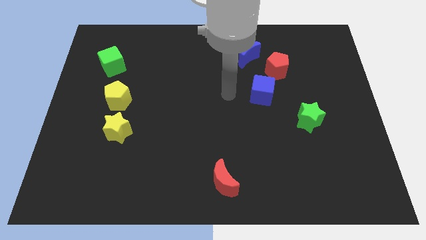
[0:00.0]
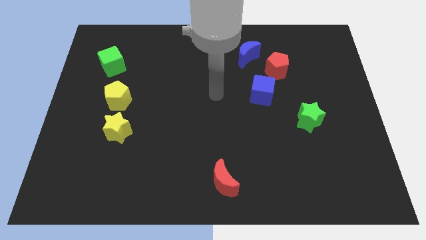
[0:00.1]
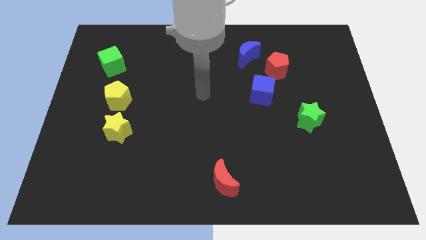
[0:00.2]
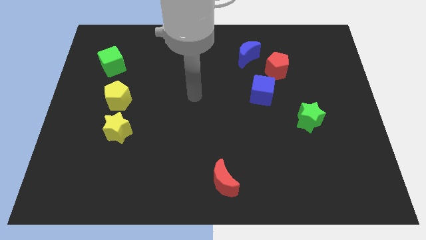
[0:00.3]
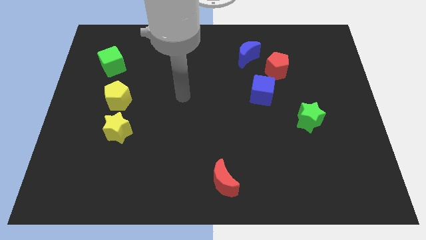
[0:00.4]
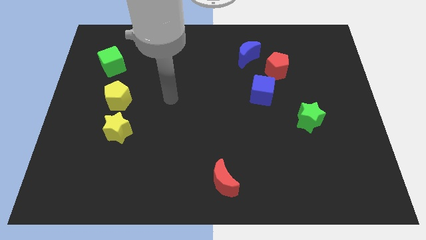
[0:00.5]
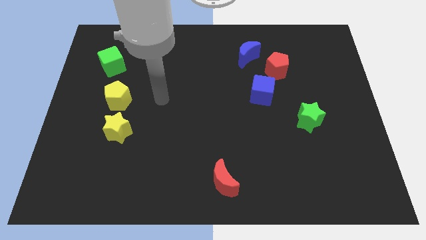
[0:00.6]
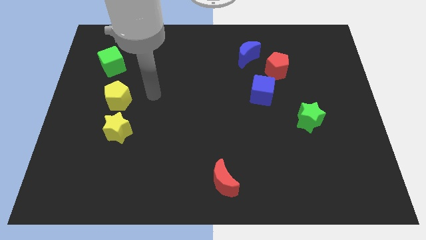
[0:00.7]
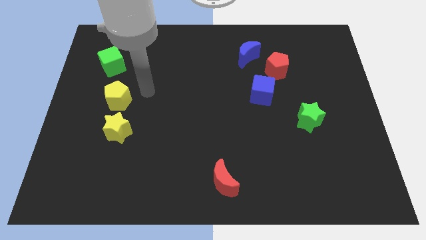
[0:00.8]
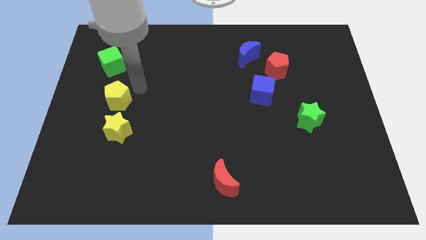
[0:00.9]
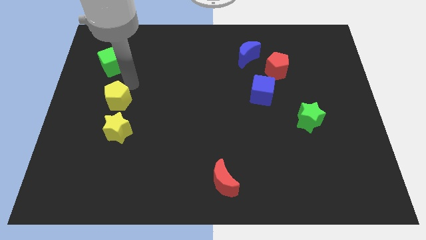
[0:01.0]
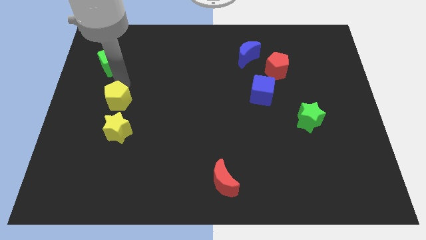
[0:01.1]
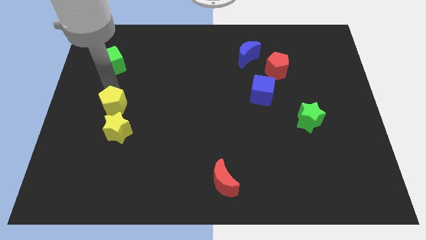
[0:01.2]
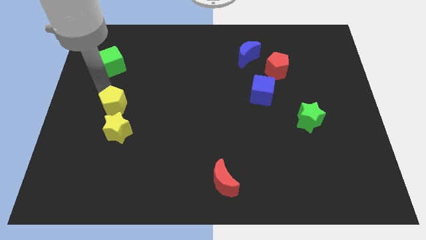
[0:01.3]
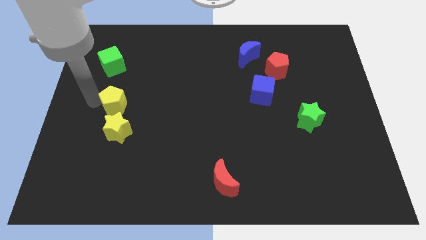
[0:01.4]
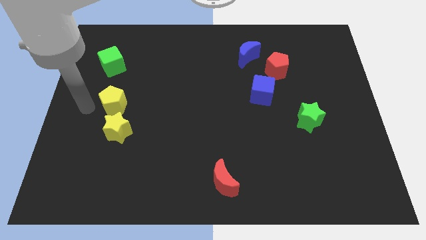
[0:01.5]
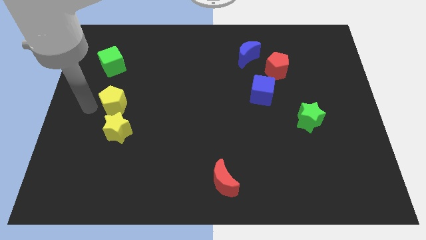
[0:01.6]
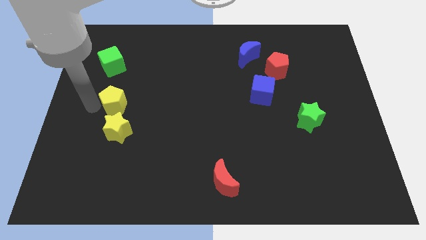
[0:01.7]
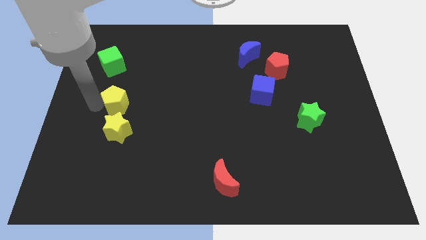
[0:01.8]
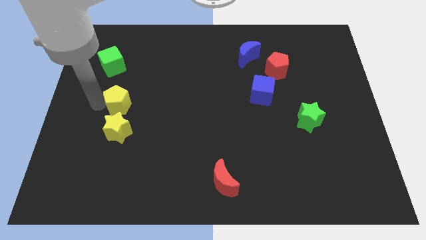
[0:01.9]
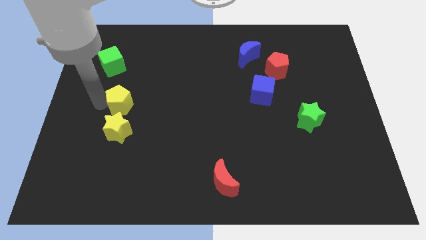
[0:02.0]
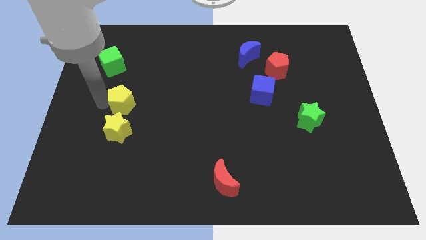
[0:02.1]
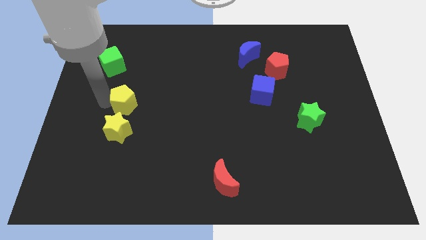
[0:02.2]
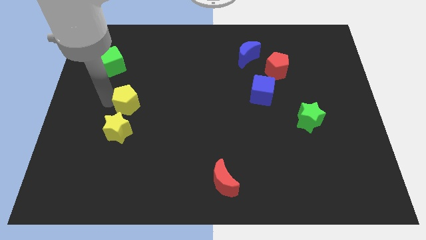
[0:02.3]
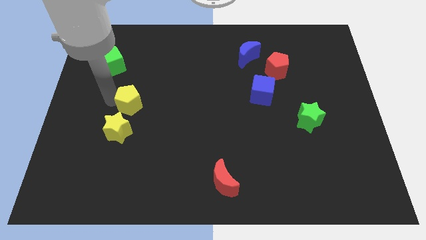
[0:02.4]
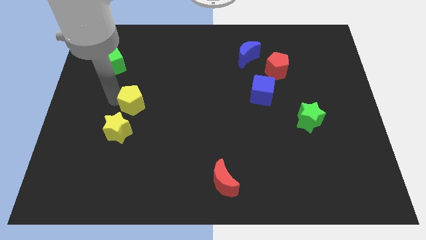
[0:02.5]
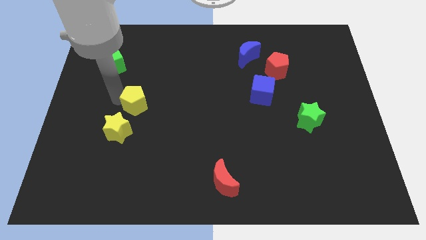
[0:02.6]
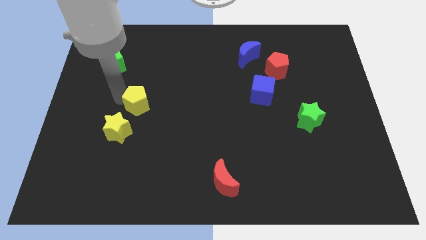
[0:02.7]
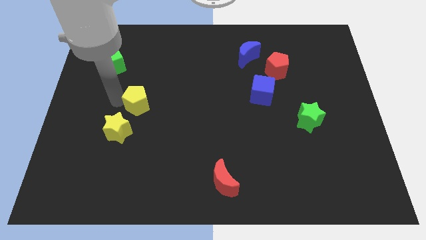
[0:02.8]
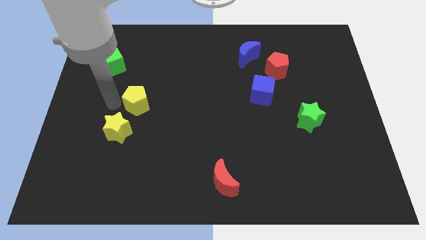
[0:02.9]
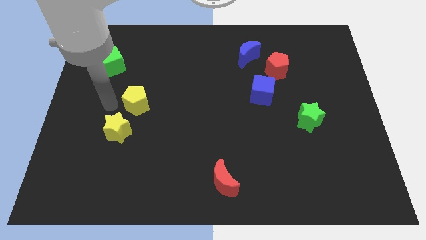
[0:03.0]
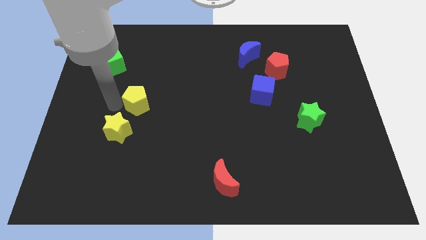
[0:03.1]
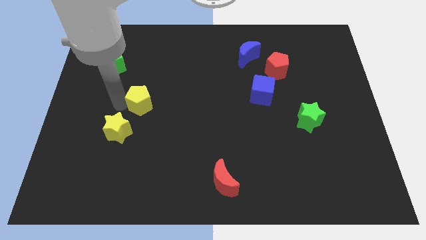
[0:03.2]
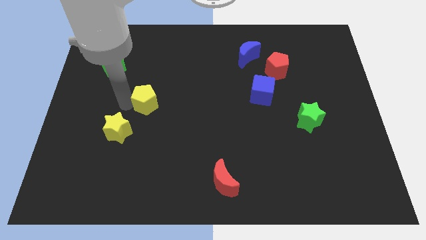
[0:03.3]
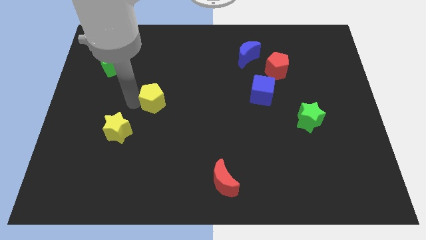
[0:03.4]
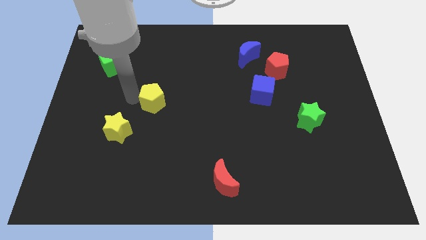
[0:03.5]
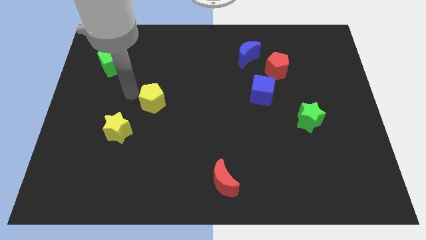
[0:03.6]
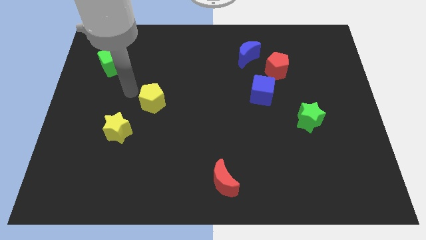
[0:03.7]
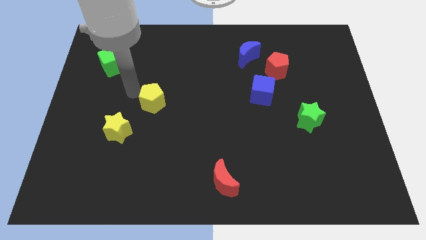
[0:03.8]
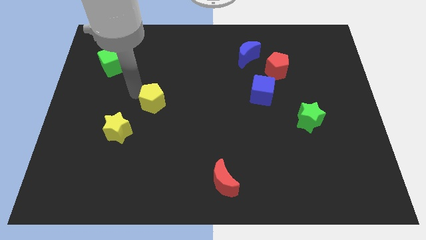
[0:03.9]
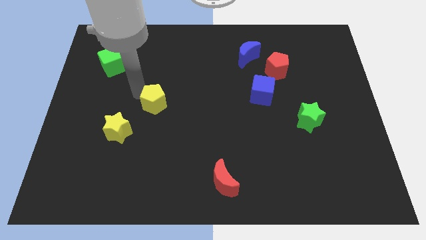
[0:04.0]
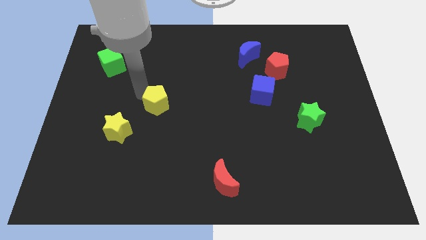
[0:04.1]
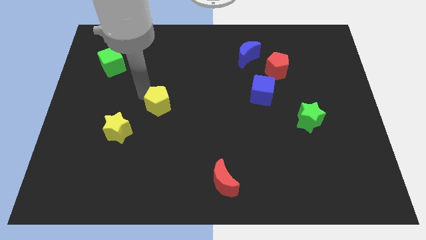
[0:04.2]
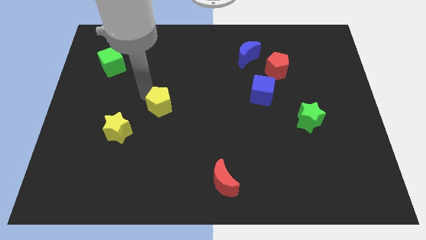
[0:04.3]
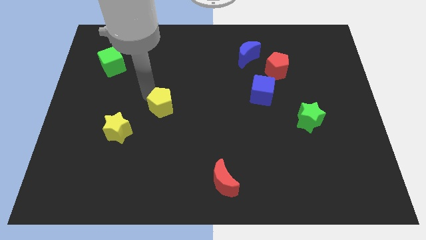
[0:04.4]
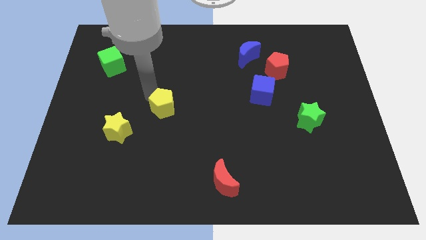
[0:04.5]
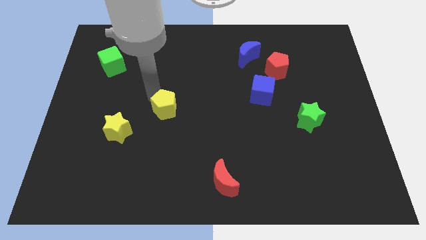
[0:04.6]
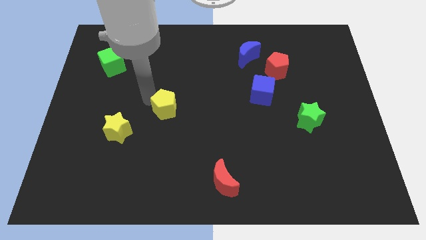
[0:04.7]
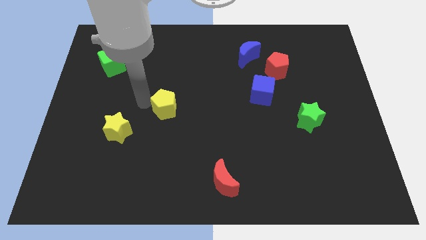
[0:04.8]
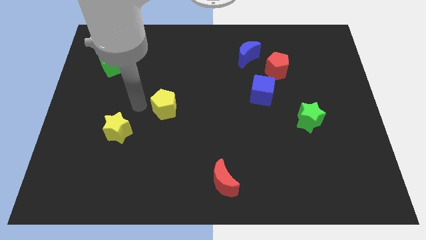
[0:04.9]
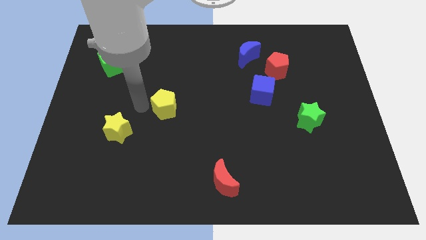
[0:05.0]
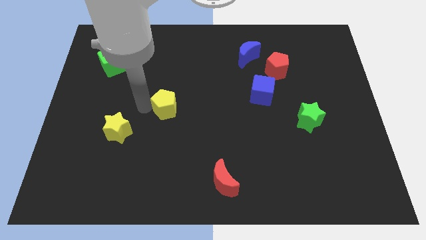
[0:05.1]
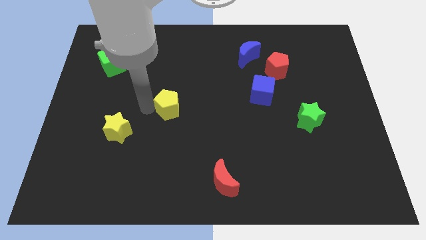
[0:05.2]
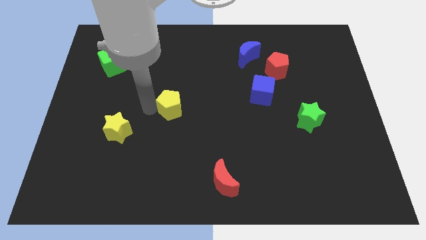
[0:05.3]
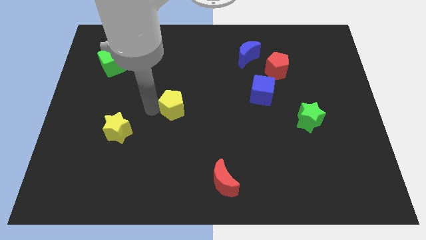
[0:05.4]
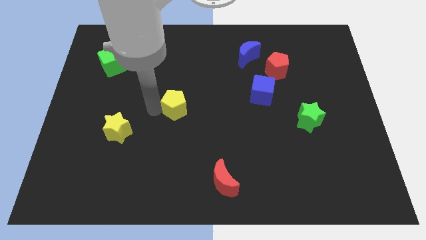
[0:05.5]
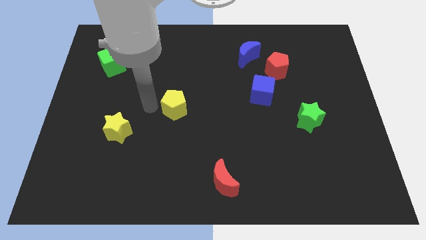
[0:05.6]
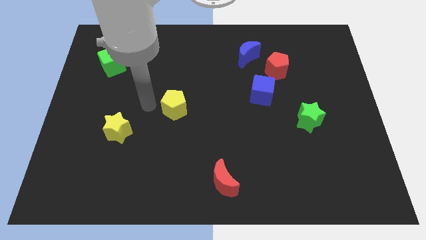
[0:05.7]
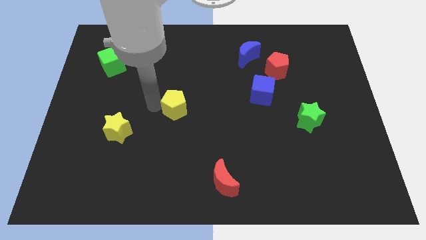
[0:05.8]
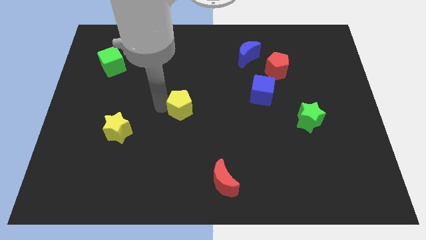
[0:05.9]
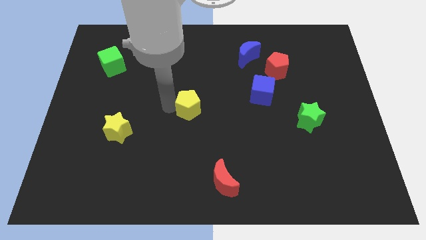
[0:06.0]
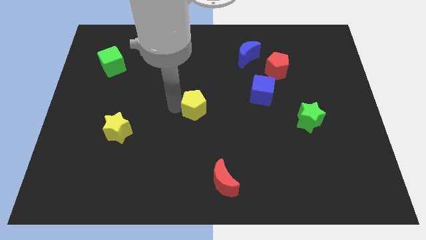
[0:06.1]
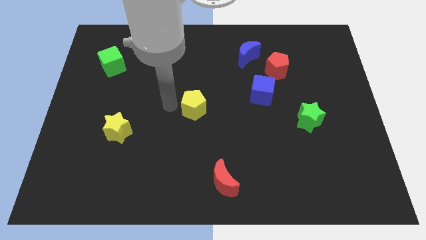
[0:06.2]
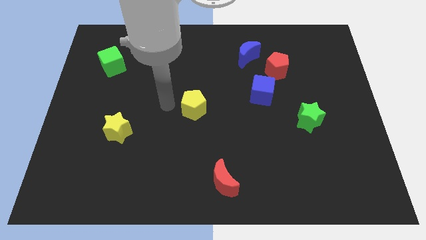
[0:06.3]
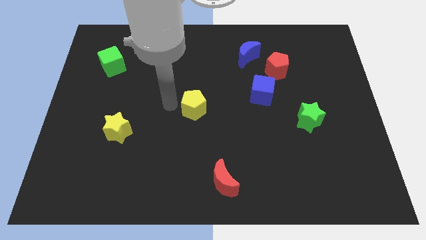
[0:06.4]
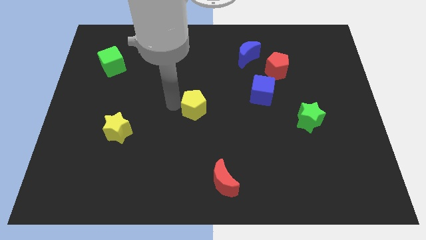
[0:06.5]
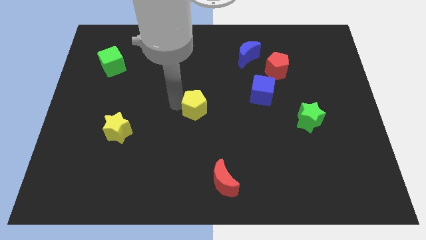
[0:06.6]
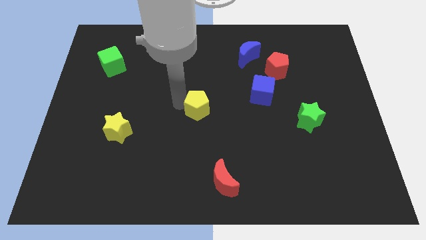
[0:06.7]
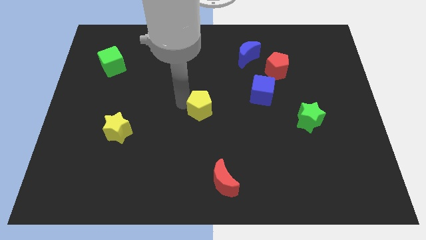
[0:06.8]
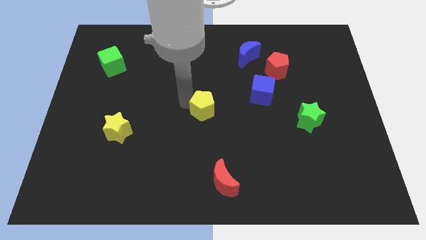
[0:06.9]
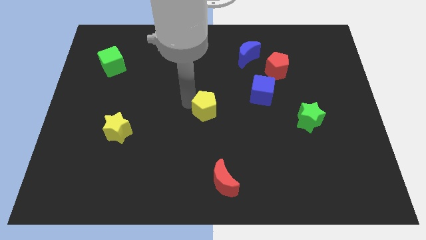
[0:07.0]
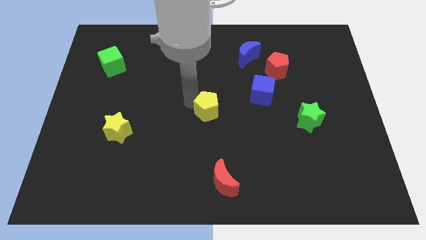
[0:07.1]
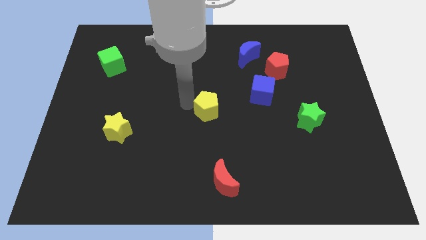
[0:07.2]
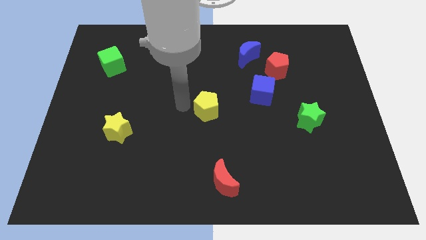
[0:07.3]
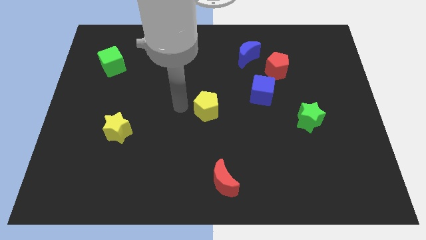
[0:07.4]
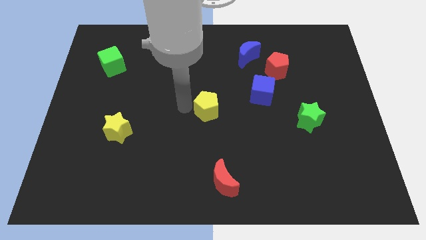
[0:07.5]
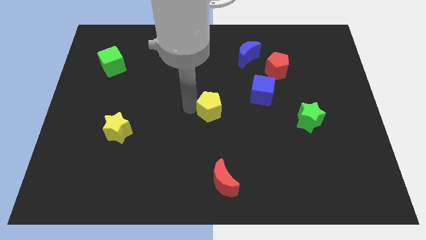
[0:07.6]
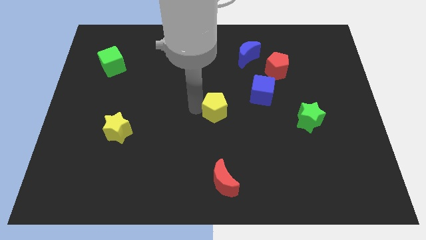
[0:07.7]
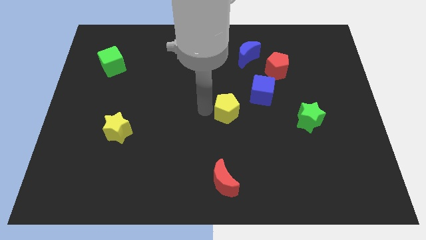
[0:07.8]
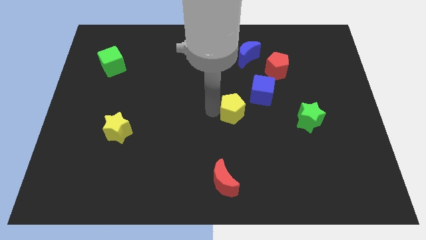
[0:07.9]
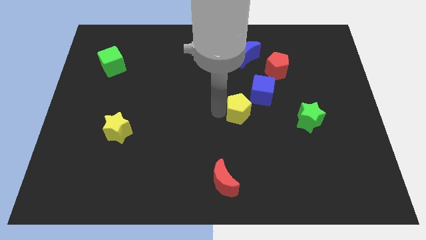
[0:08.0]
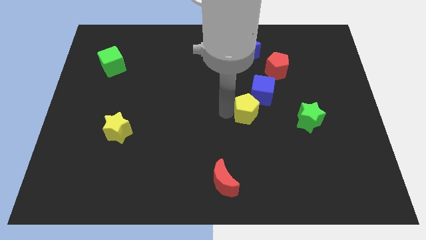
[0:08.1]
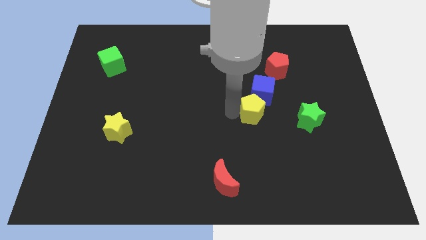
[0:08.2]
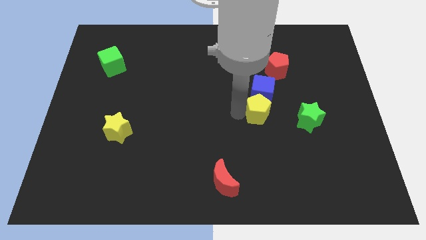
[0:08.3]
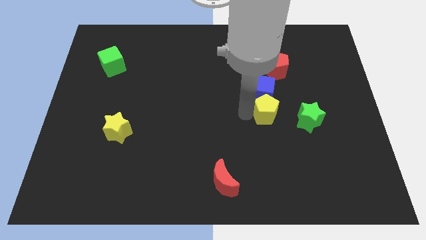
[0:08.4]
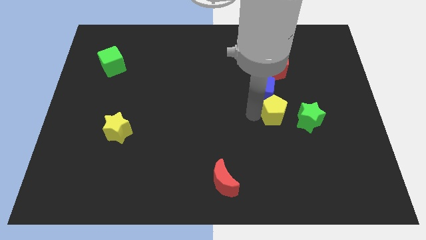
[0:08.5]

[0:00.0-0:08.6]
put the yellow pentagon to the top left side of the green star

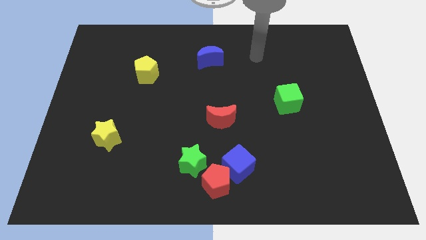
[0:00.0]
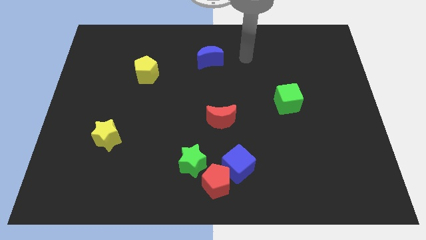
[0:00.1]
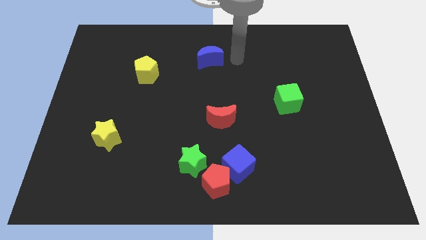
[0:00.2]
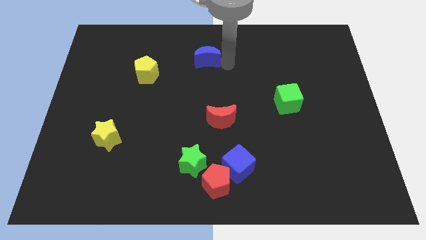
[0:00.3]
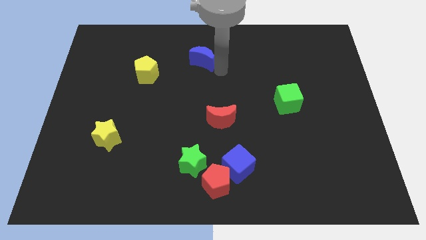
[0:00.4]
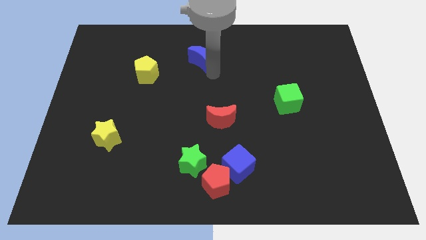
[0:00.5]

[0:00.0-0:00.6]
slide the yellow pentagon left of the blue moon
